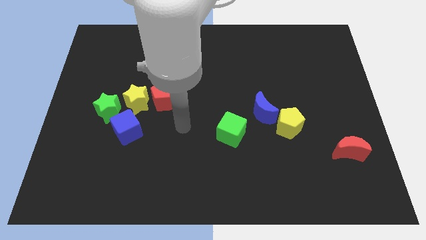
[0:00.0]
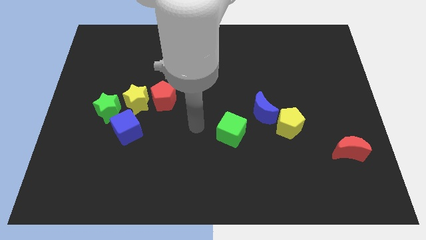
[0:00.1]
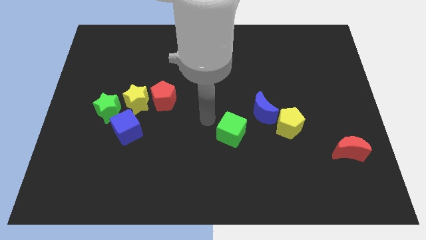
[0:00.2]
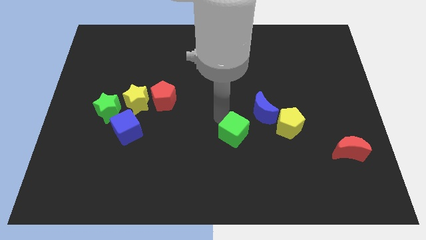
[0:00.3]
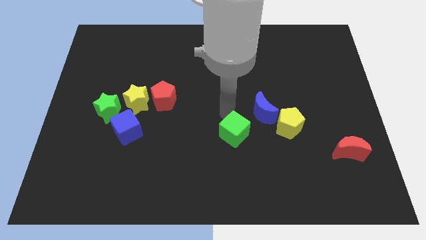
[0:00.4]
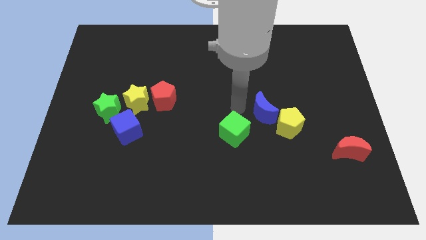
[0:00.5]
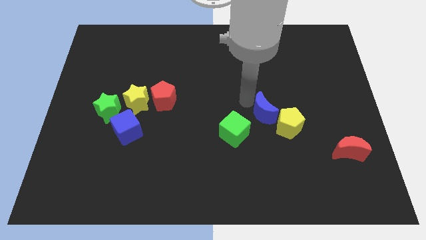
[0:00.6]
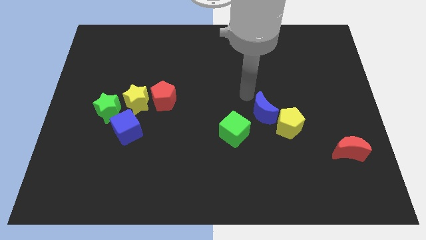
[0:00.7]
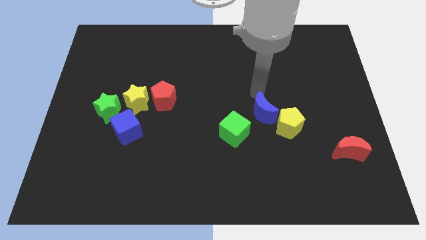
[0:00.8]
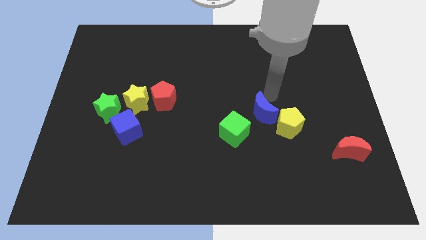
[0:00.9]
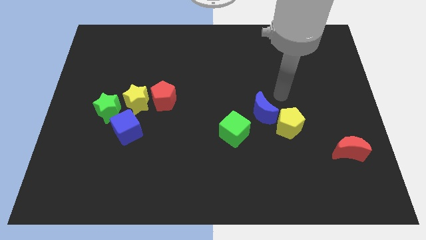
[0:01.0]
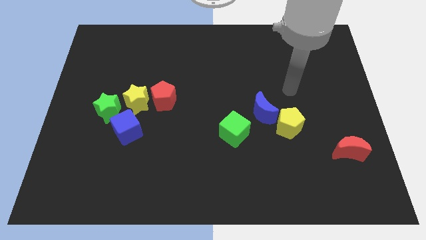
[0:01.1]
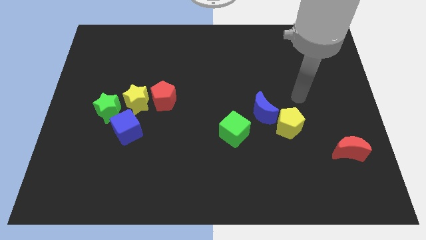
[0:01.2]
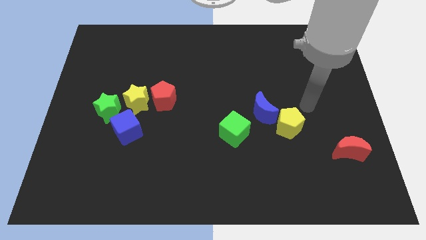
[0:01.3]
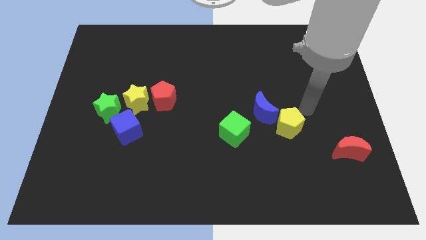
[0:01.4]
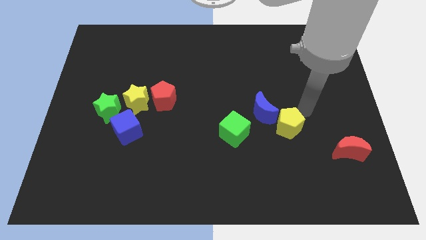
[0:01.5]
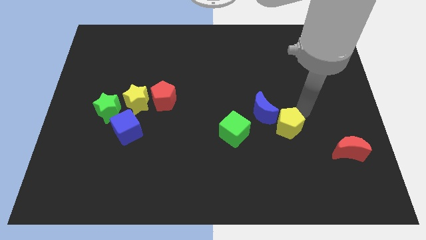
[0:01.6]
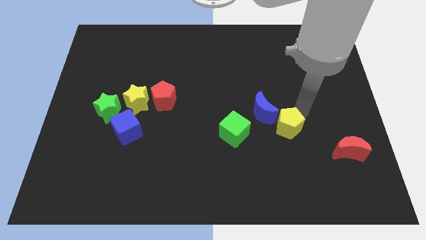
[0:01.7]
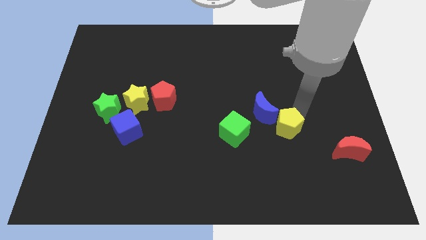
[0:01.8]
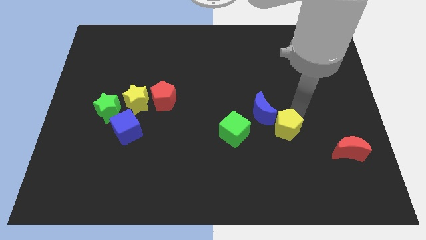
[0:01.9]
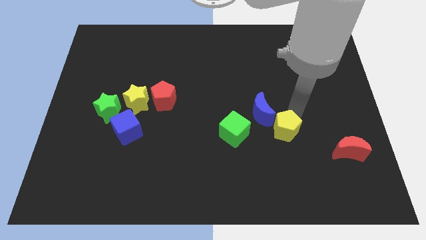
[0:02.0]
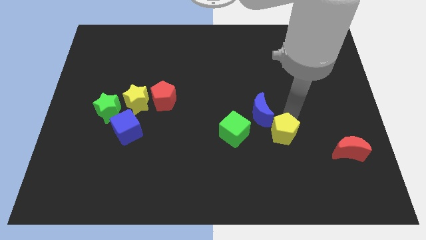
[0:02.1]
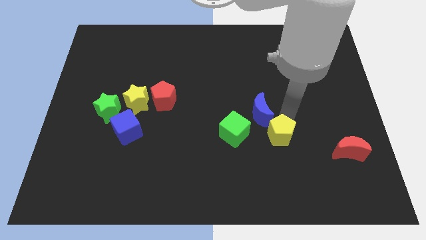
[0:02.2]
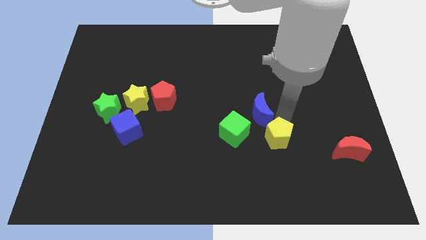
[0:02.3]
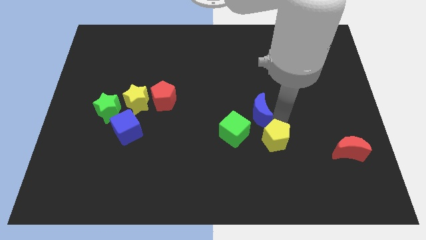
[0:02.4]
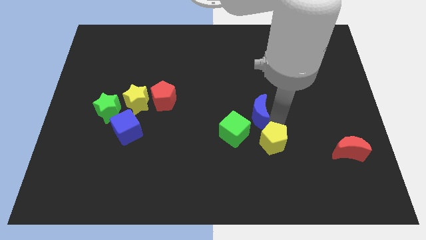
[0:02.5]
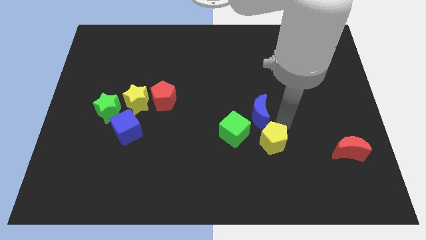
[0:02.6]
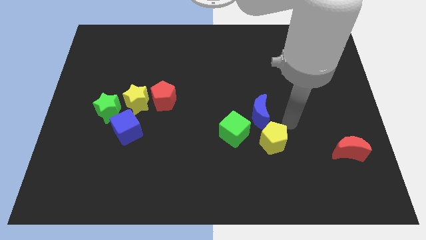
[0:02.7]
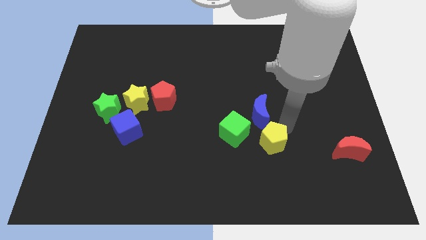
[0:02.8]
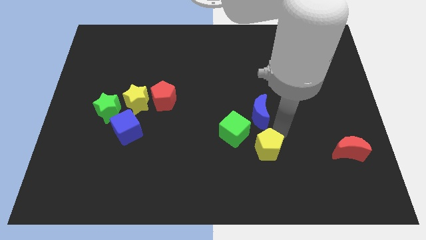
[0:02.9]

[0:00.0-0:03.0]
push the yellow pentagon diagonally downwards and to the left slightly

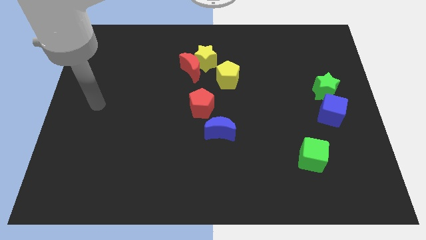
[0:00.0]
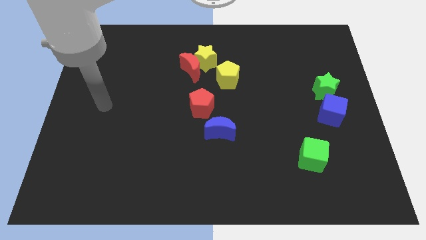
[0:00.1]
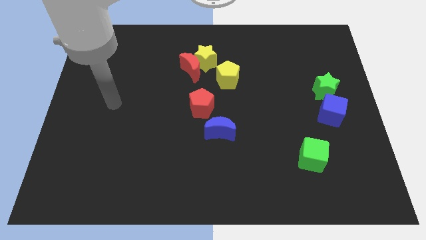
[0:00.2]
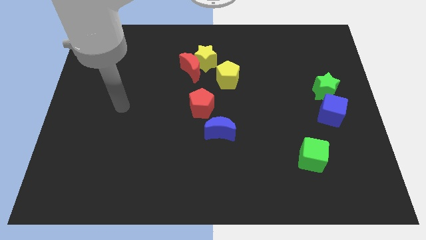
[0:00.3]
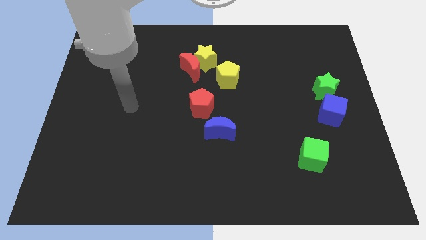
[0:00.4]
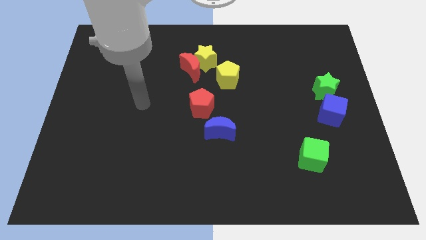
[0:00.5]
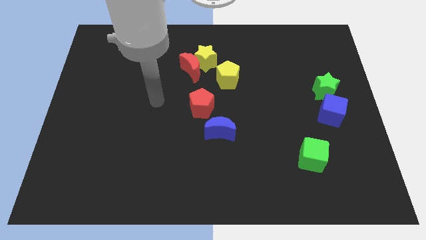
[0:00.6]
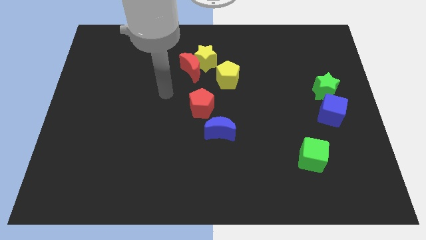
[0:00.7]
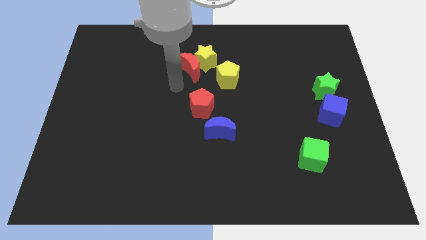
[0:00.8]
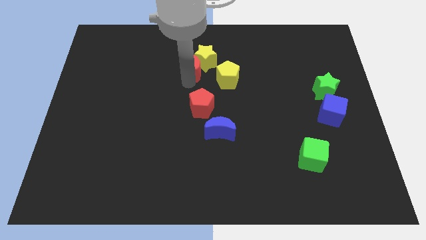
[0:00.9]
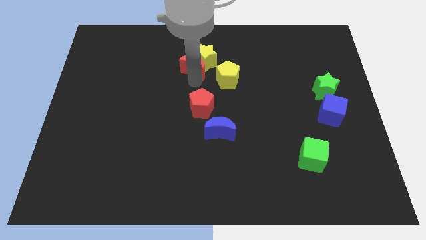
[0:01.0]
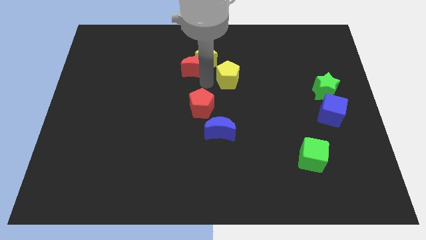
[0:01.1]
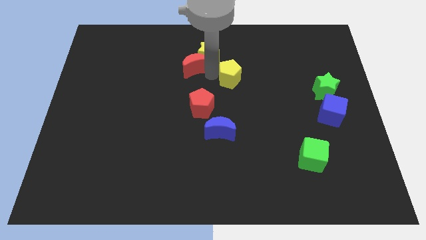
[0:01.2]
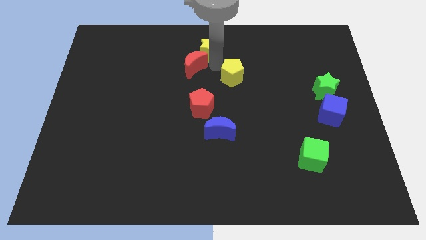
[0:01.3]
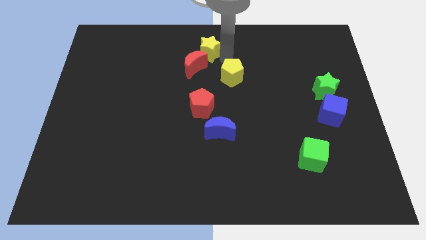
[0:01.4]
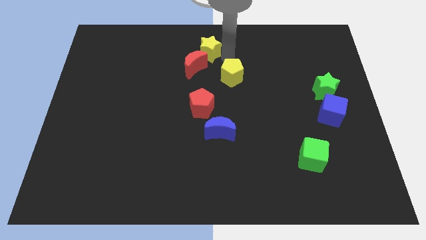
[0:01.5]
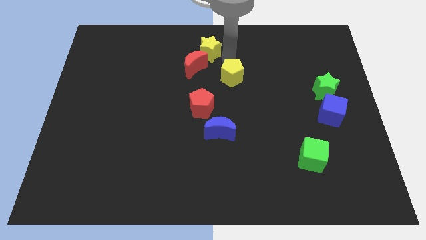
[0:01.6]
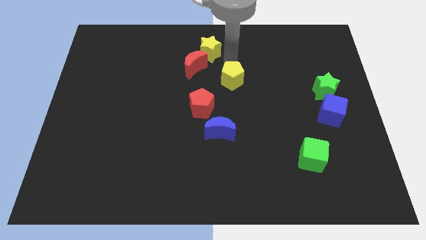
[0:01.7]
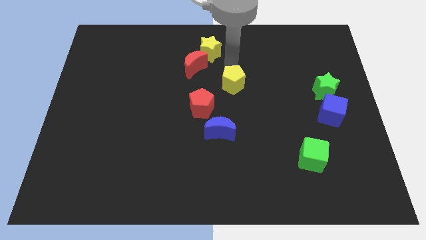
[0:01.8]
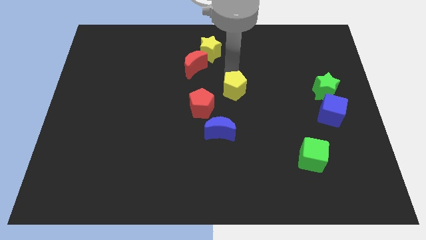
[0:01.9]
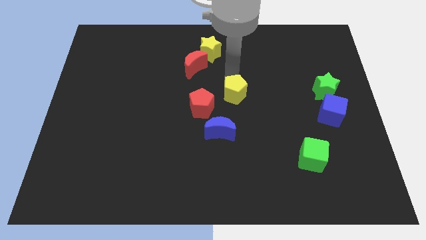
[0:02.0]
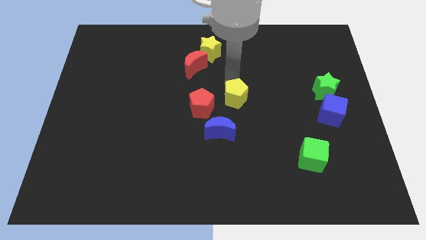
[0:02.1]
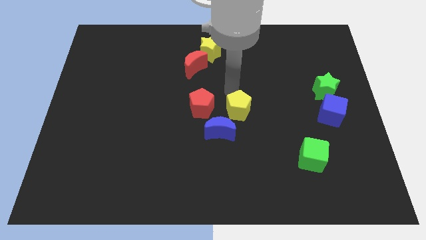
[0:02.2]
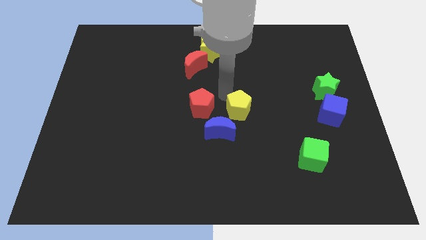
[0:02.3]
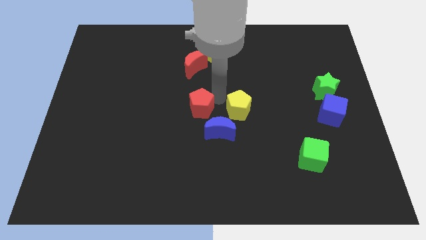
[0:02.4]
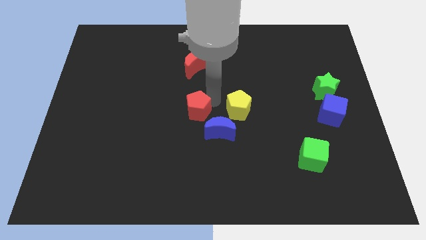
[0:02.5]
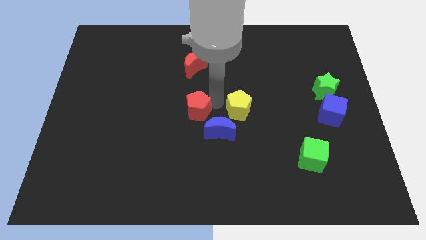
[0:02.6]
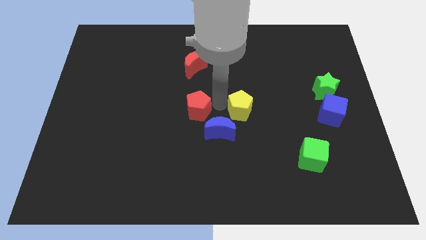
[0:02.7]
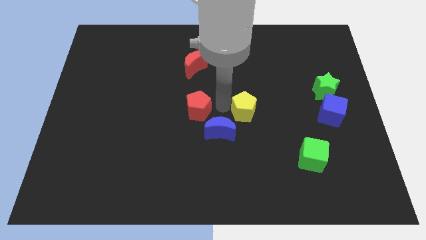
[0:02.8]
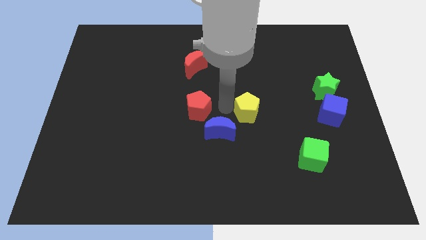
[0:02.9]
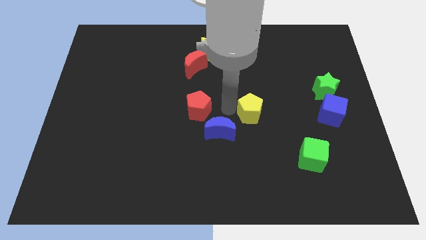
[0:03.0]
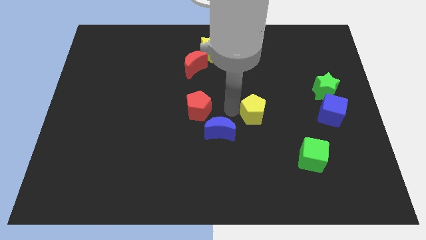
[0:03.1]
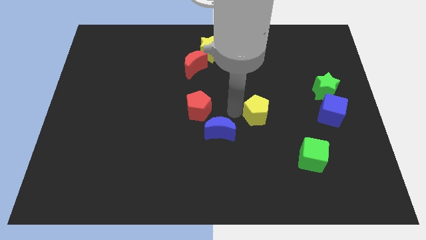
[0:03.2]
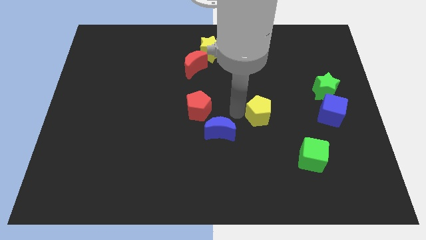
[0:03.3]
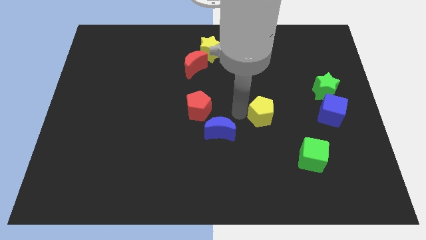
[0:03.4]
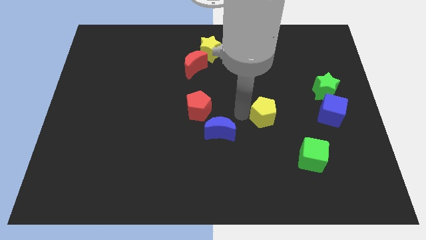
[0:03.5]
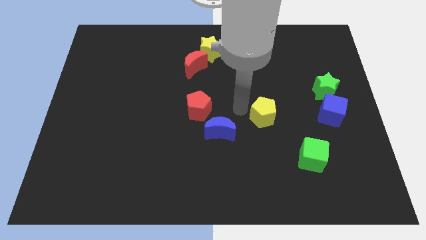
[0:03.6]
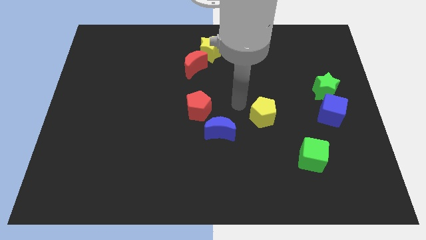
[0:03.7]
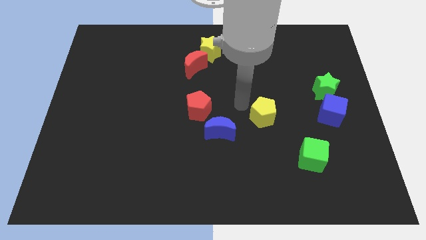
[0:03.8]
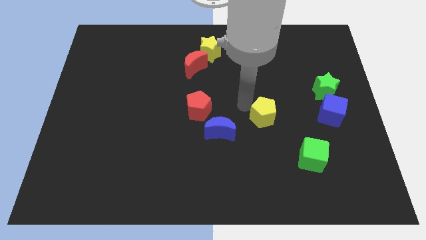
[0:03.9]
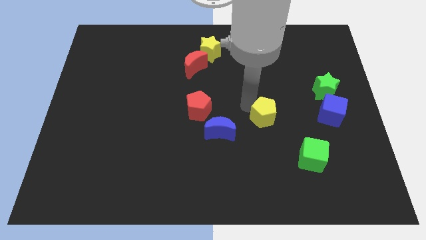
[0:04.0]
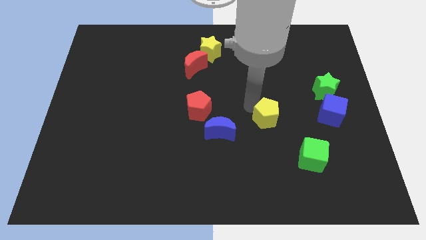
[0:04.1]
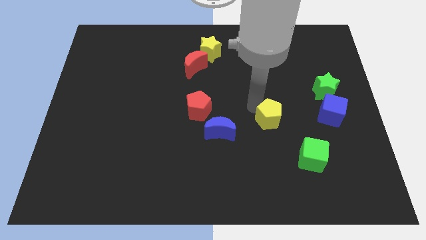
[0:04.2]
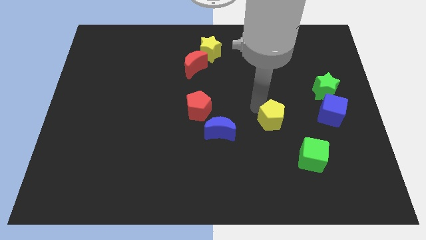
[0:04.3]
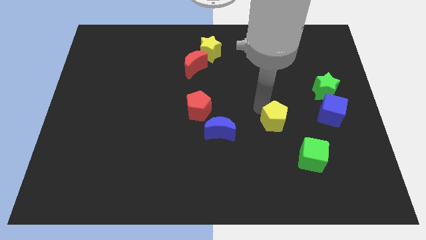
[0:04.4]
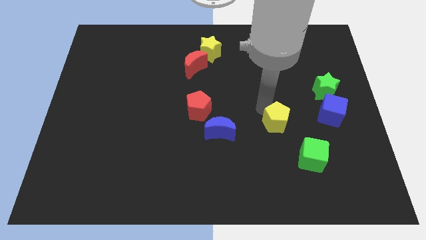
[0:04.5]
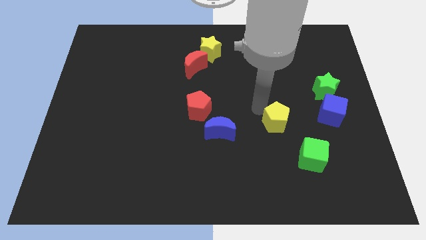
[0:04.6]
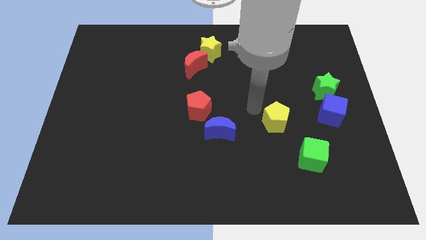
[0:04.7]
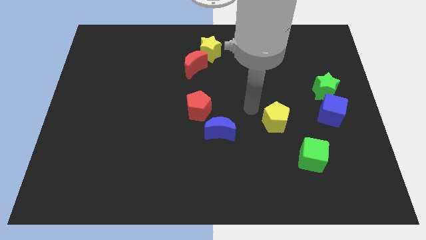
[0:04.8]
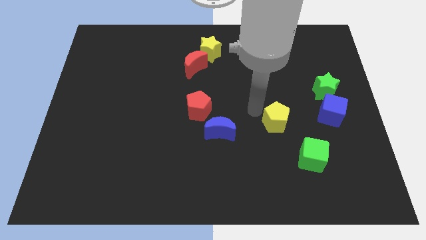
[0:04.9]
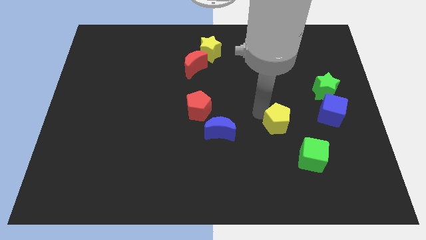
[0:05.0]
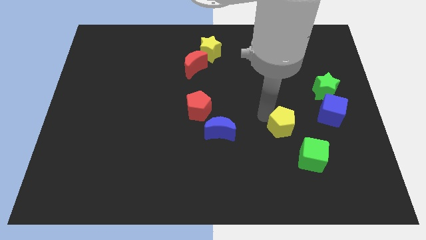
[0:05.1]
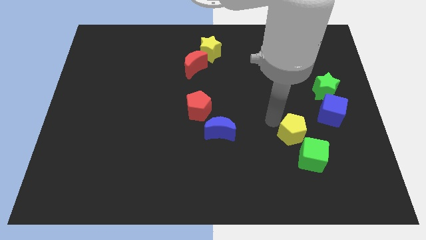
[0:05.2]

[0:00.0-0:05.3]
move the yellow pentagon diagonally downwards and right
